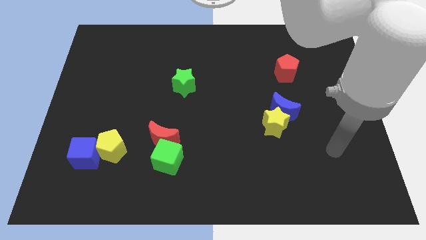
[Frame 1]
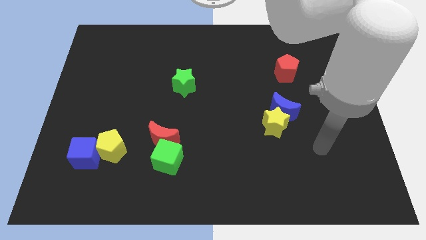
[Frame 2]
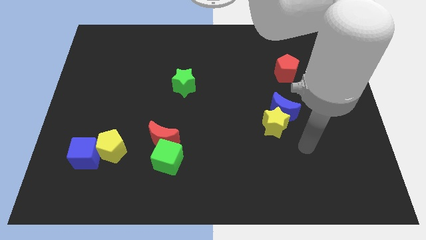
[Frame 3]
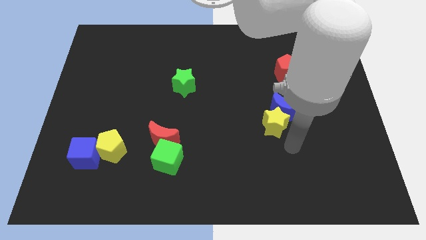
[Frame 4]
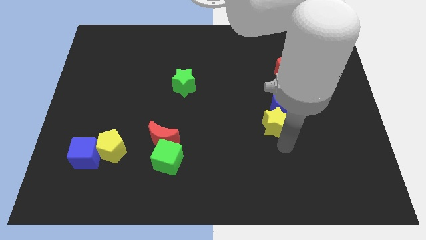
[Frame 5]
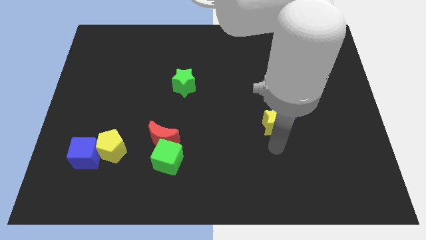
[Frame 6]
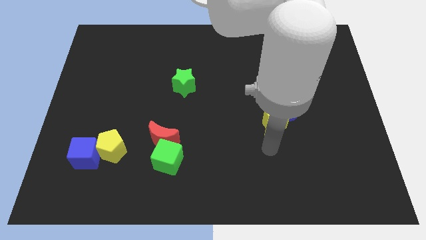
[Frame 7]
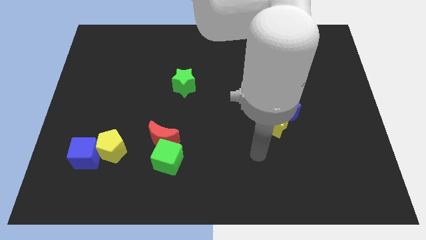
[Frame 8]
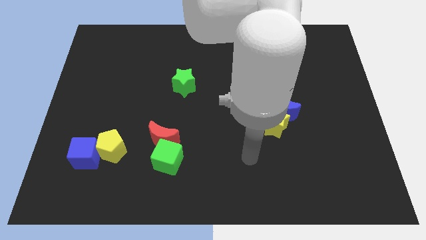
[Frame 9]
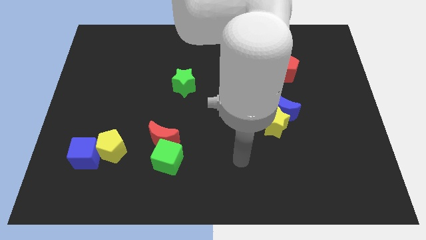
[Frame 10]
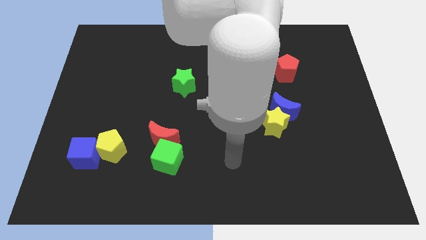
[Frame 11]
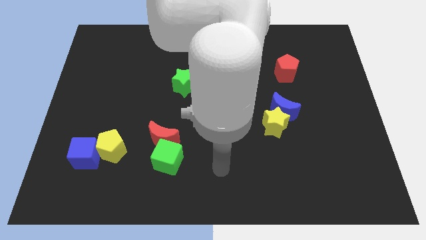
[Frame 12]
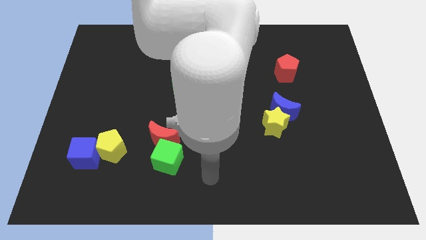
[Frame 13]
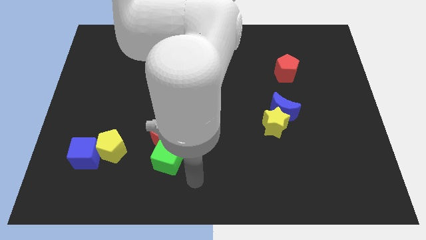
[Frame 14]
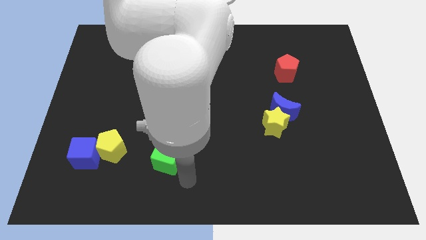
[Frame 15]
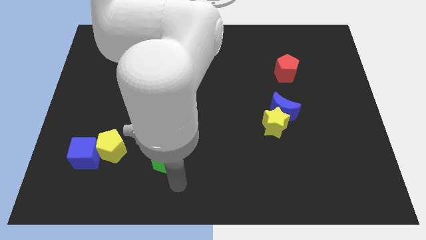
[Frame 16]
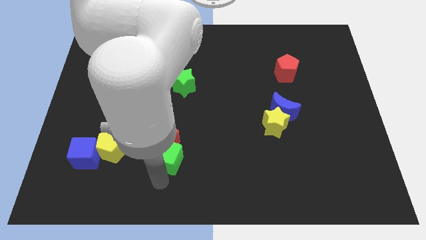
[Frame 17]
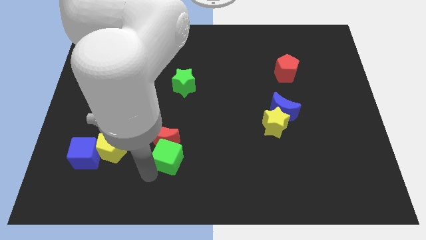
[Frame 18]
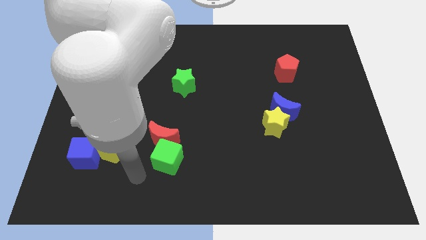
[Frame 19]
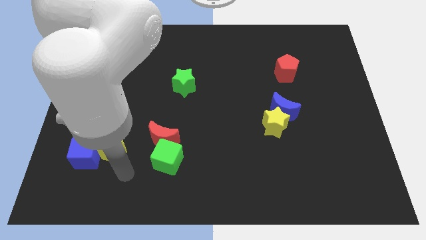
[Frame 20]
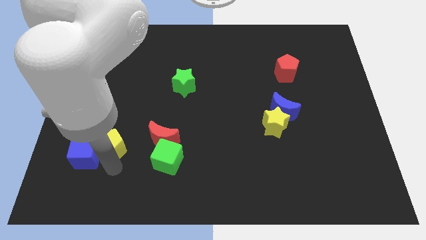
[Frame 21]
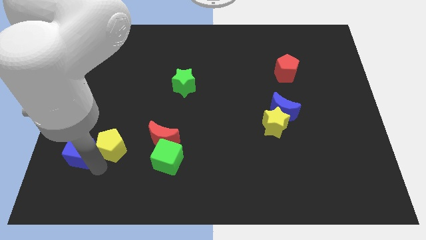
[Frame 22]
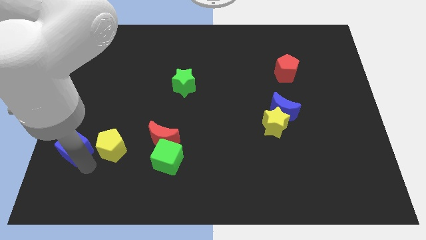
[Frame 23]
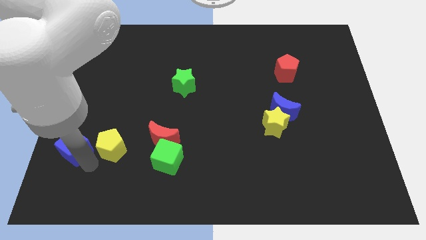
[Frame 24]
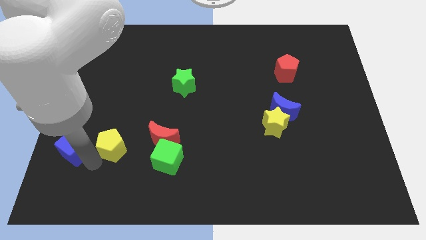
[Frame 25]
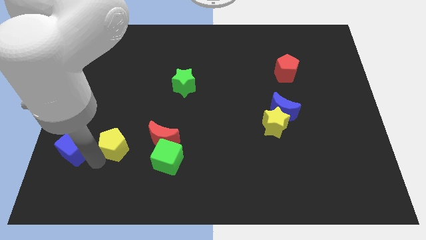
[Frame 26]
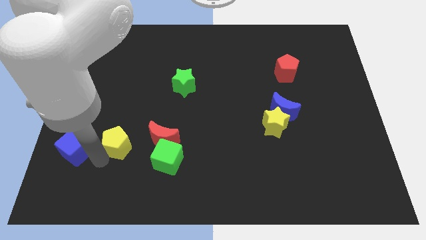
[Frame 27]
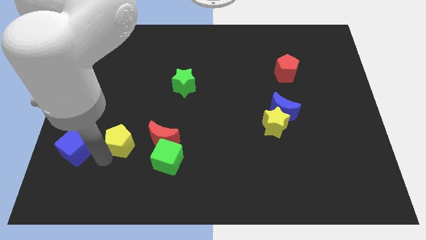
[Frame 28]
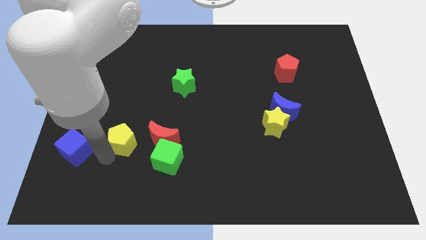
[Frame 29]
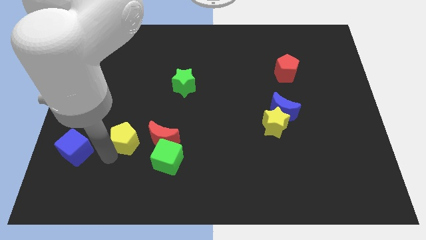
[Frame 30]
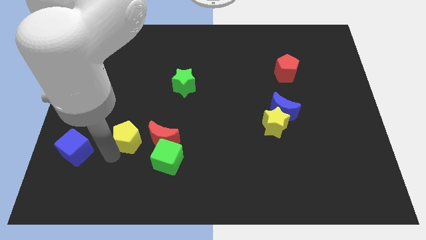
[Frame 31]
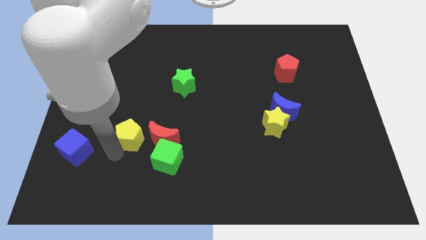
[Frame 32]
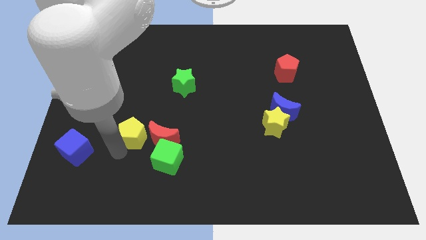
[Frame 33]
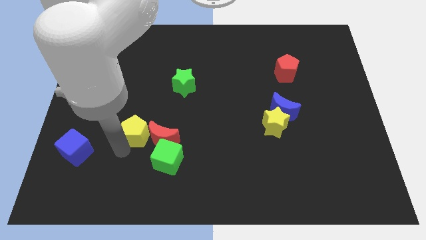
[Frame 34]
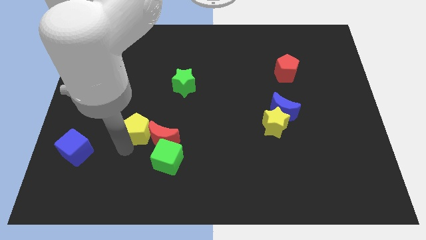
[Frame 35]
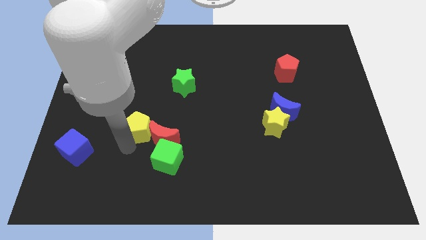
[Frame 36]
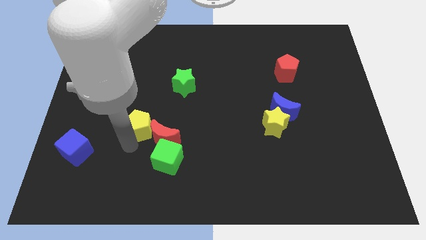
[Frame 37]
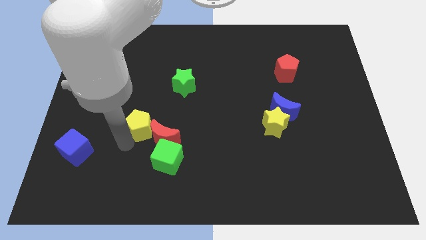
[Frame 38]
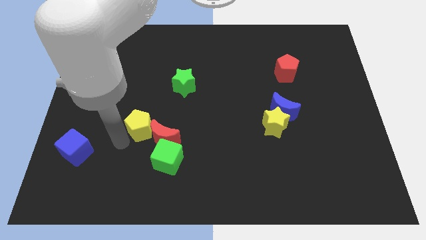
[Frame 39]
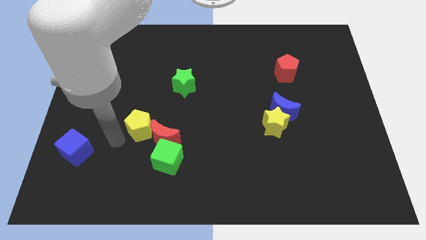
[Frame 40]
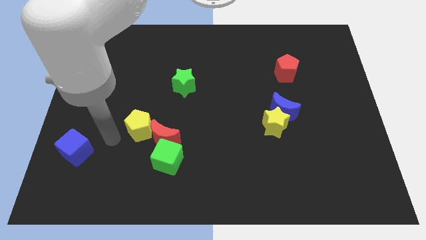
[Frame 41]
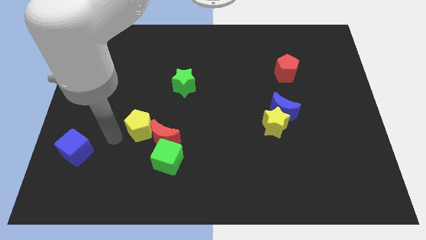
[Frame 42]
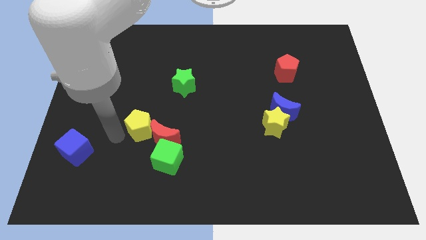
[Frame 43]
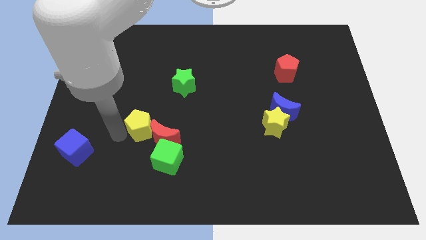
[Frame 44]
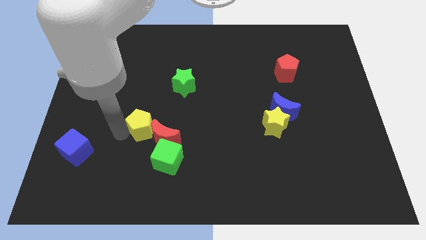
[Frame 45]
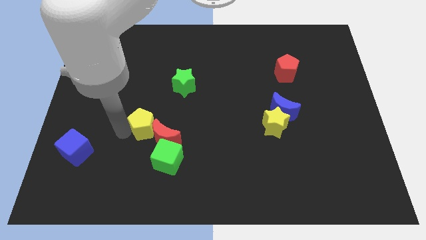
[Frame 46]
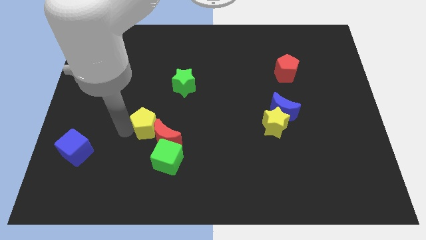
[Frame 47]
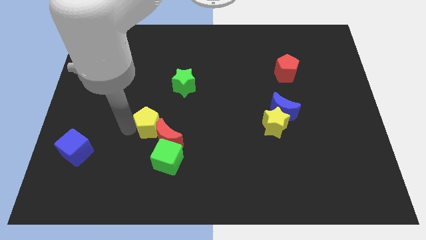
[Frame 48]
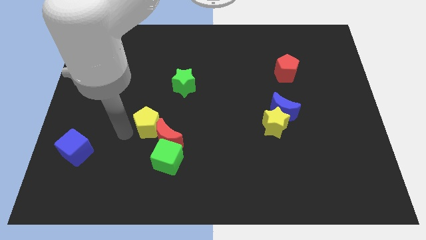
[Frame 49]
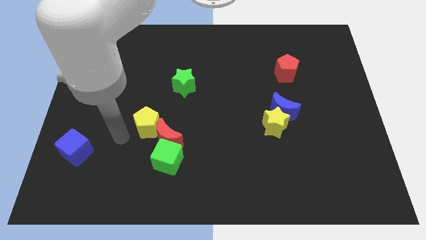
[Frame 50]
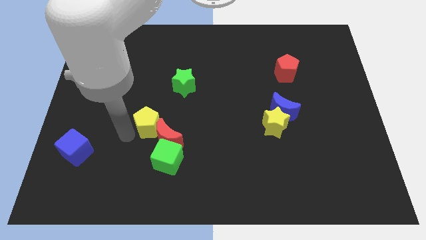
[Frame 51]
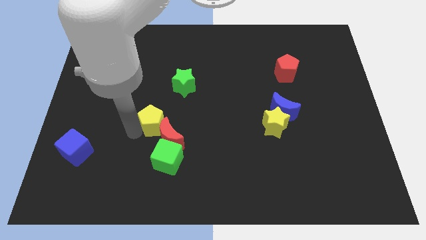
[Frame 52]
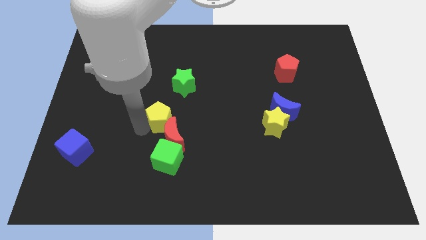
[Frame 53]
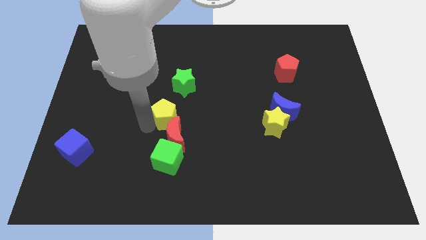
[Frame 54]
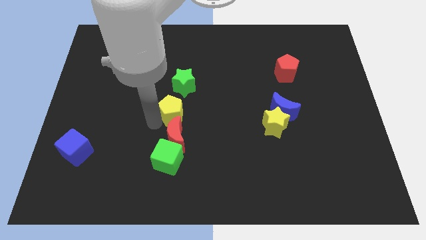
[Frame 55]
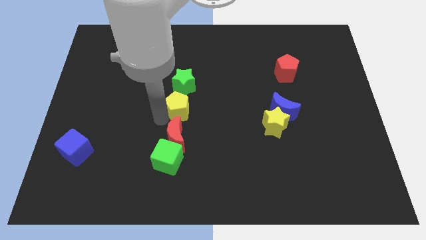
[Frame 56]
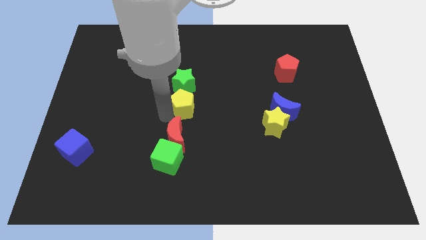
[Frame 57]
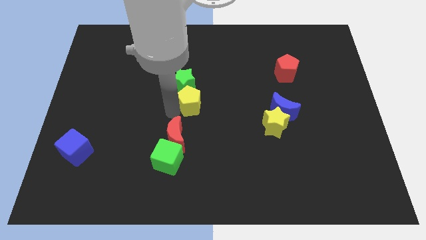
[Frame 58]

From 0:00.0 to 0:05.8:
push the yellow pentagon to the bottom right of the green star

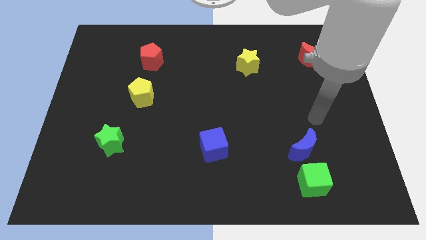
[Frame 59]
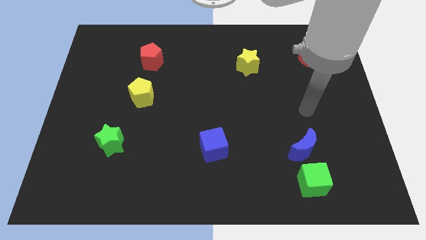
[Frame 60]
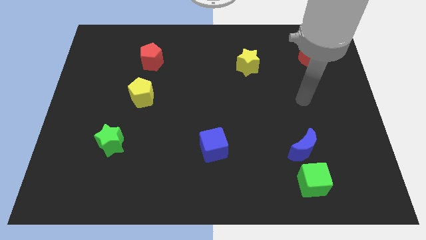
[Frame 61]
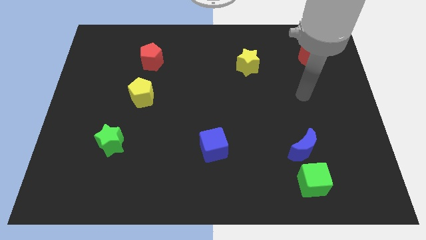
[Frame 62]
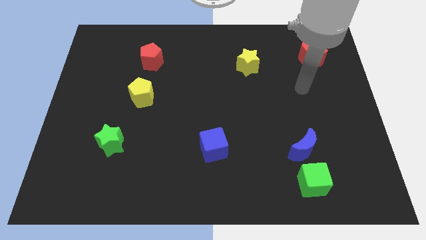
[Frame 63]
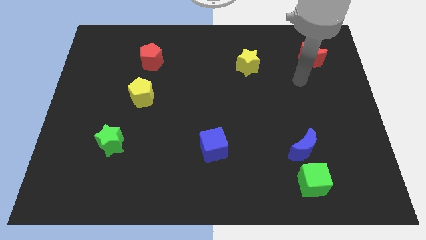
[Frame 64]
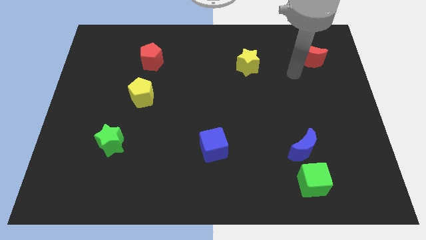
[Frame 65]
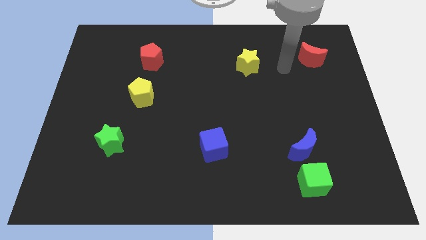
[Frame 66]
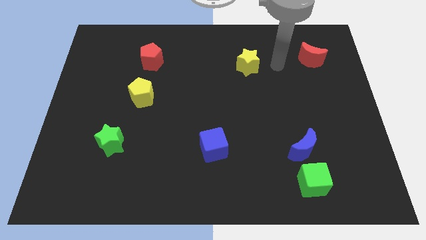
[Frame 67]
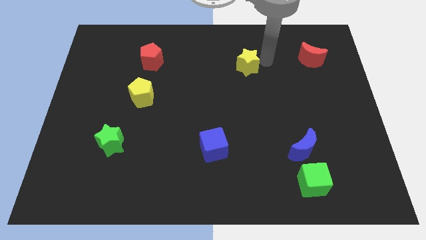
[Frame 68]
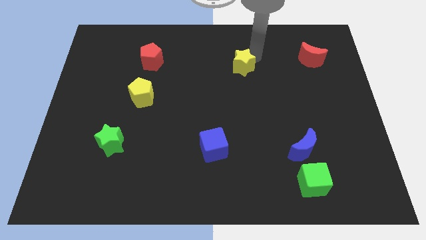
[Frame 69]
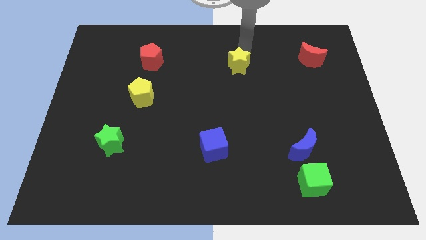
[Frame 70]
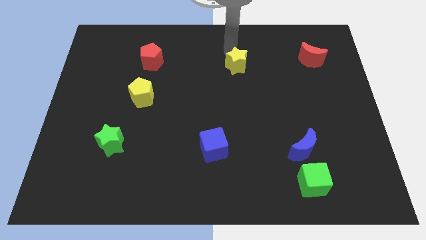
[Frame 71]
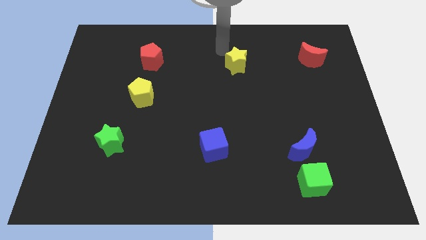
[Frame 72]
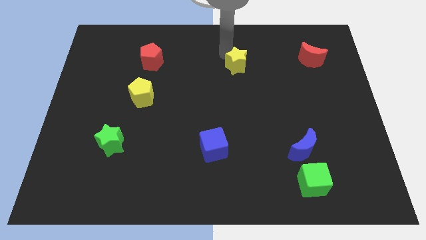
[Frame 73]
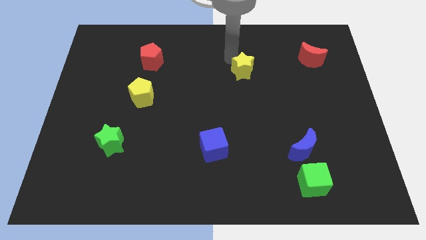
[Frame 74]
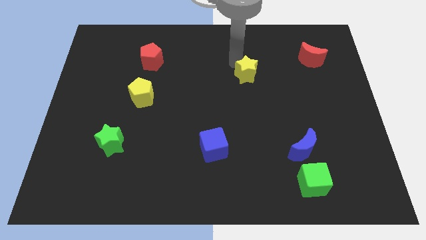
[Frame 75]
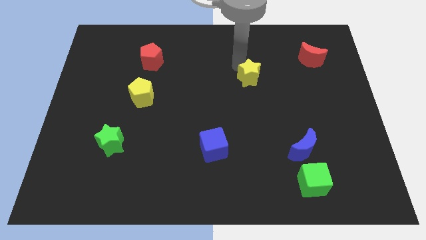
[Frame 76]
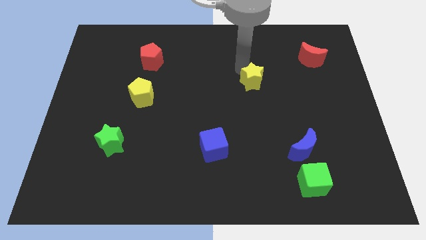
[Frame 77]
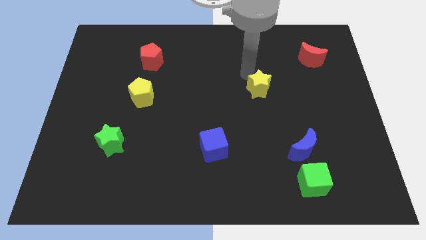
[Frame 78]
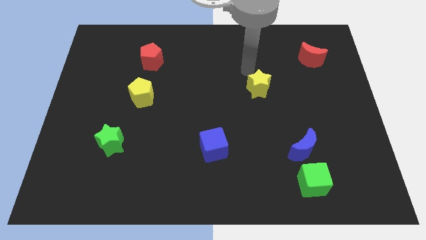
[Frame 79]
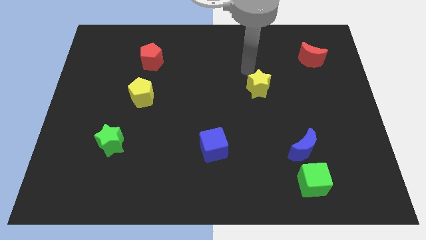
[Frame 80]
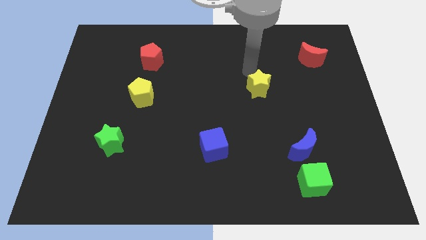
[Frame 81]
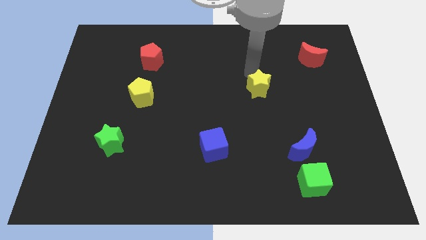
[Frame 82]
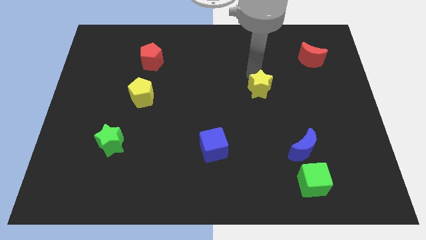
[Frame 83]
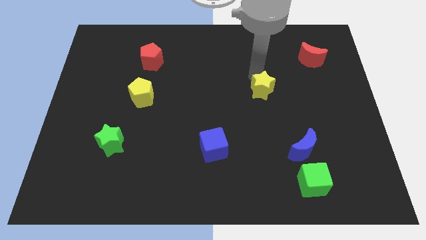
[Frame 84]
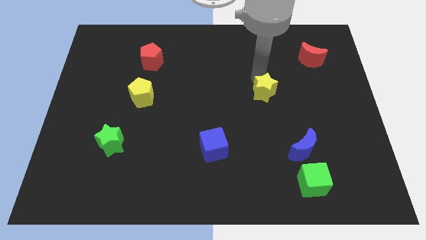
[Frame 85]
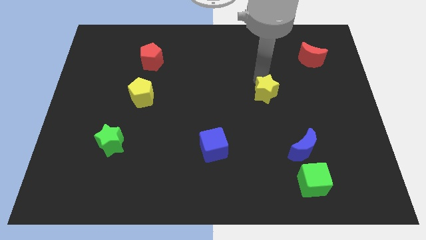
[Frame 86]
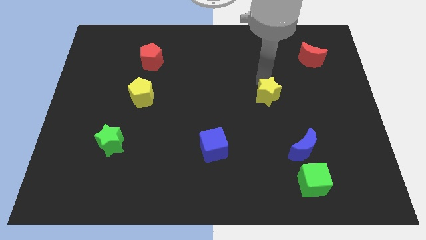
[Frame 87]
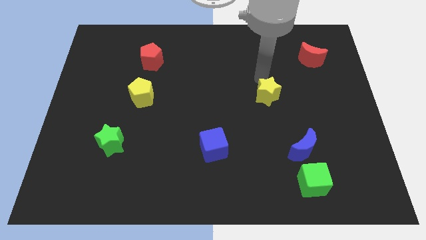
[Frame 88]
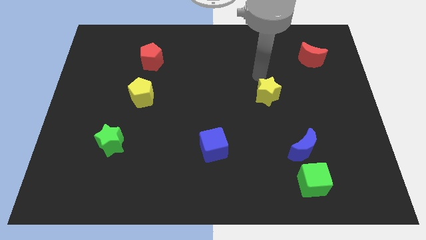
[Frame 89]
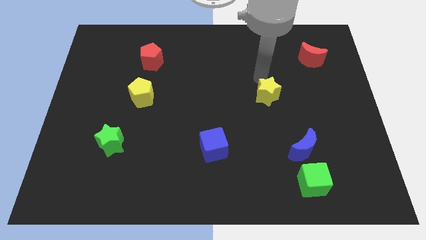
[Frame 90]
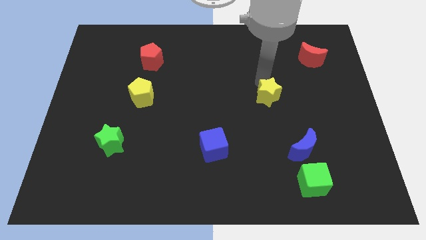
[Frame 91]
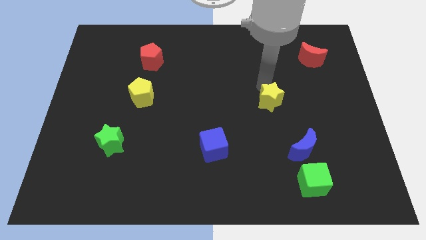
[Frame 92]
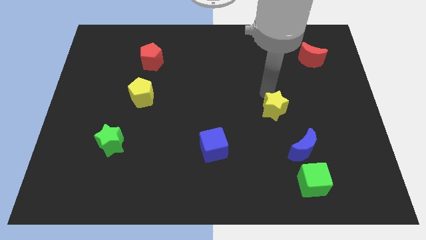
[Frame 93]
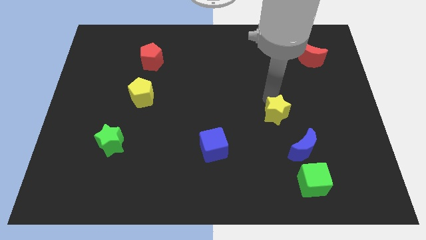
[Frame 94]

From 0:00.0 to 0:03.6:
slide the yellow star diagonally up and to the left of the blue moon
